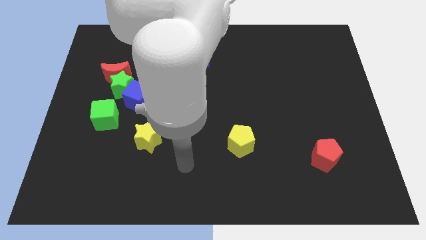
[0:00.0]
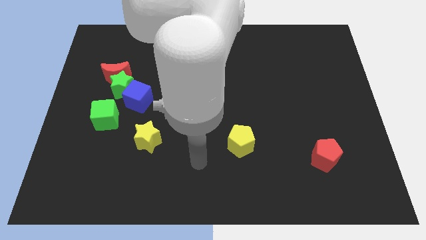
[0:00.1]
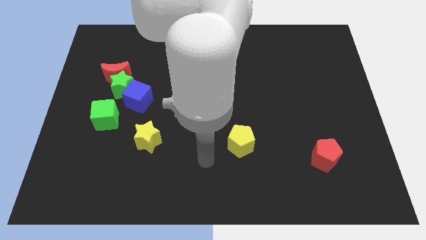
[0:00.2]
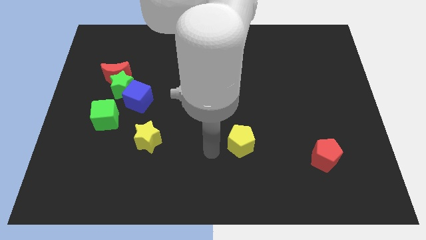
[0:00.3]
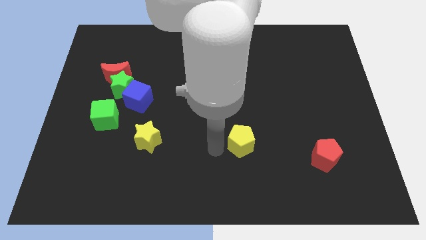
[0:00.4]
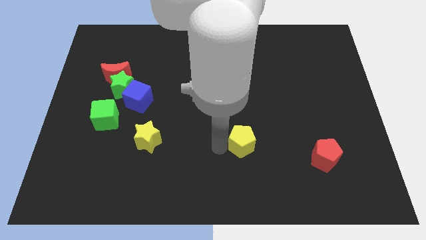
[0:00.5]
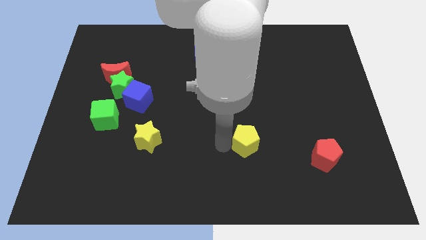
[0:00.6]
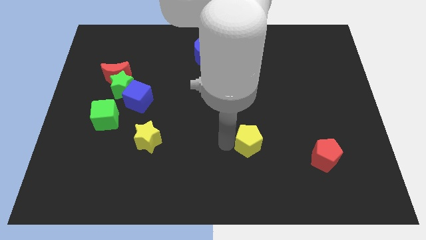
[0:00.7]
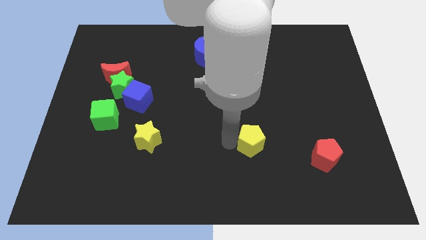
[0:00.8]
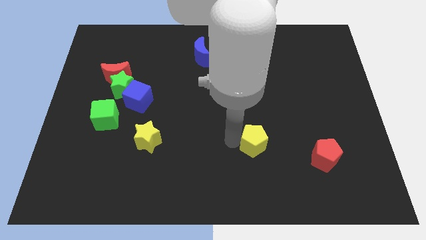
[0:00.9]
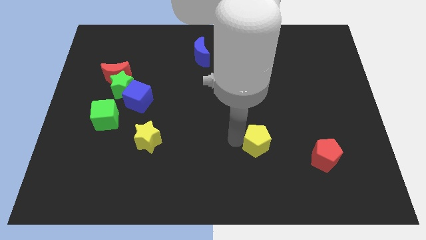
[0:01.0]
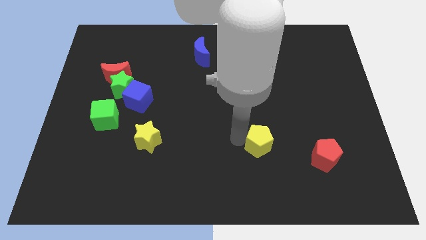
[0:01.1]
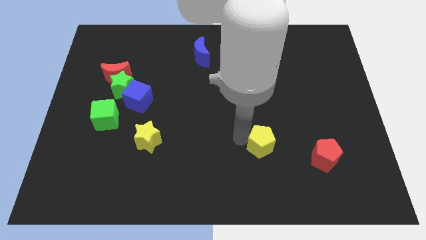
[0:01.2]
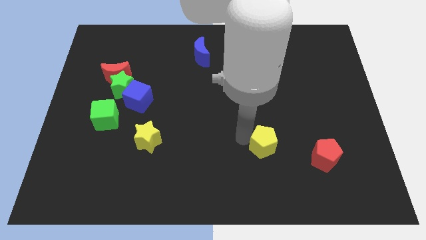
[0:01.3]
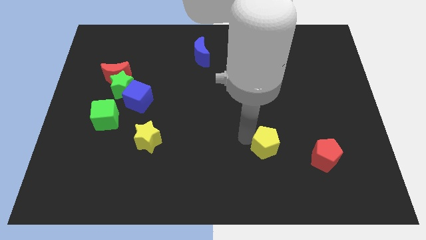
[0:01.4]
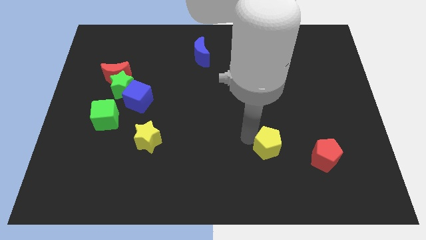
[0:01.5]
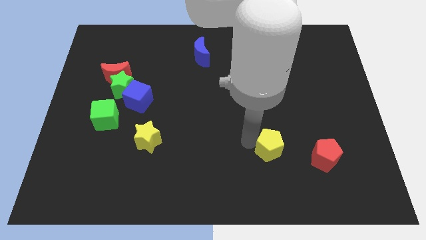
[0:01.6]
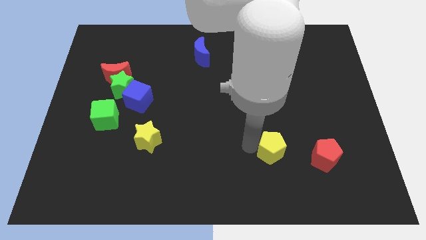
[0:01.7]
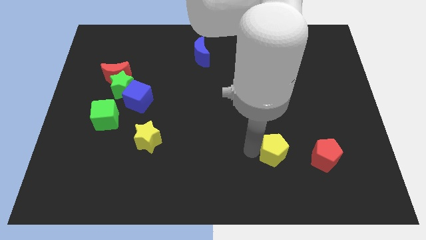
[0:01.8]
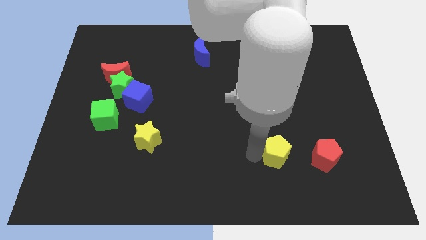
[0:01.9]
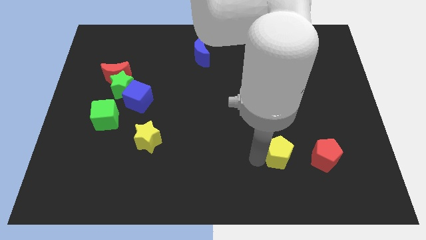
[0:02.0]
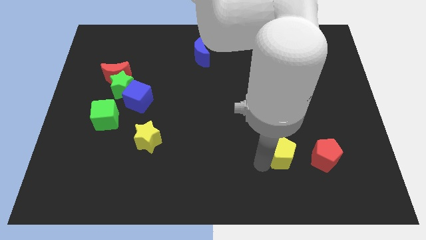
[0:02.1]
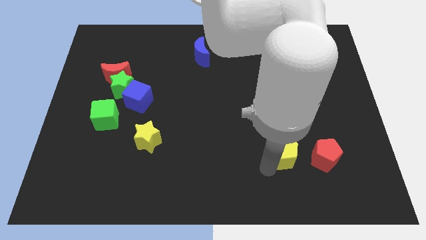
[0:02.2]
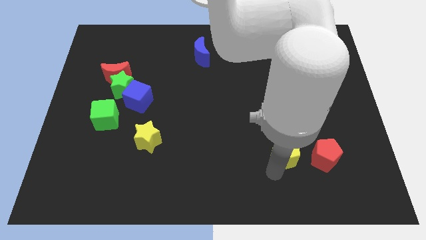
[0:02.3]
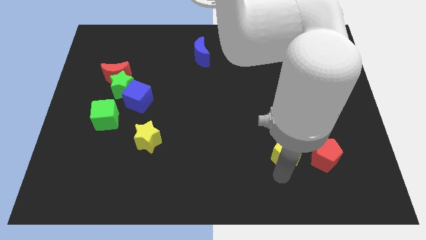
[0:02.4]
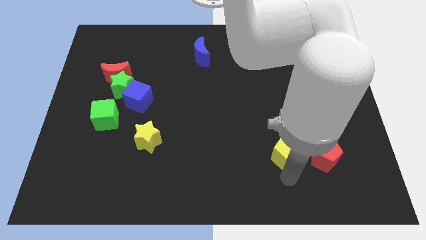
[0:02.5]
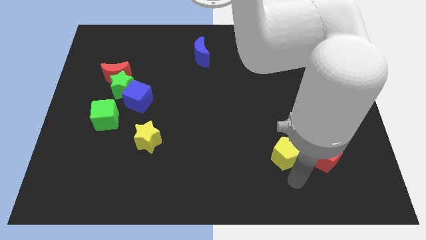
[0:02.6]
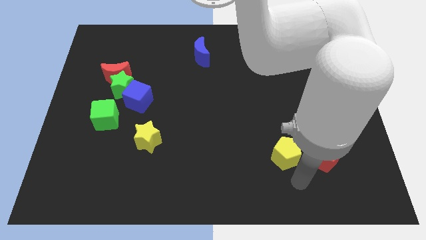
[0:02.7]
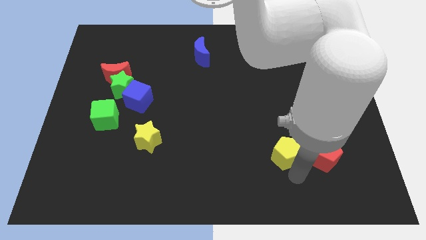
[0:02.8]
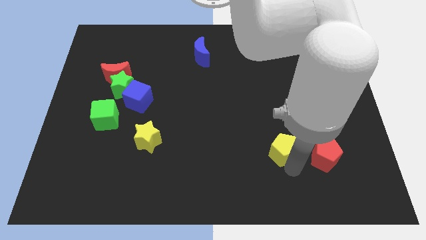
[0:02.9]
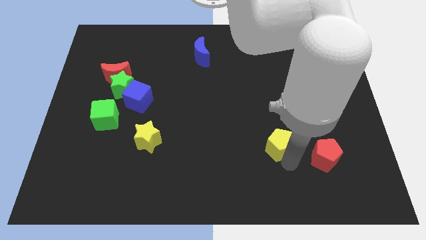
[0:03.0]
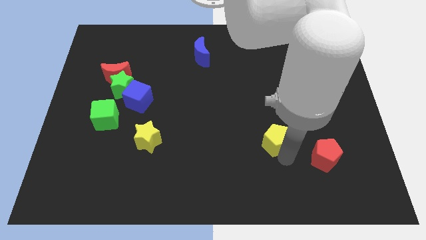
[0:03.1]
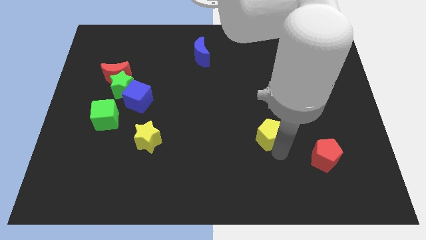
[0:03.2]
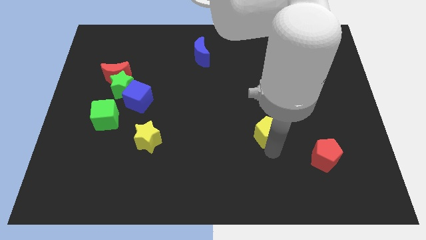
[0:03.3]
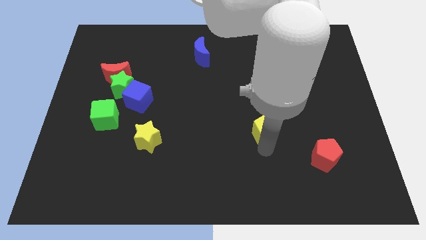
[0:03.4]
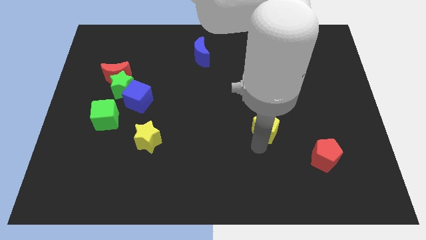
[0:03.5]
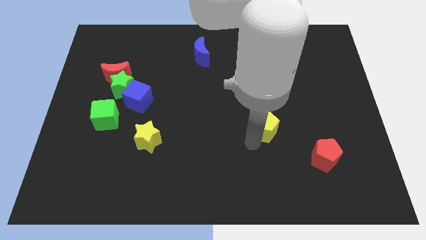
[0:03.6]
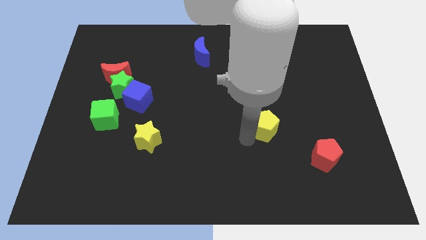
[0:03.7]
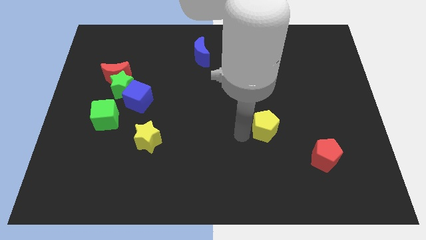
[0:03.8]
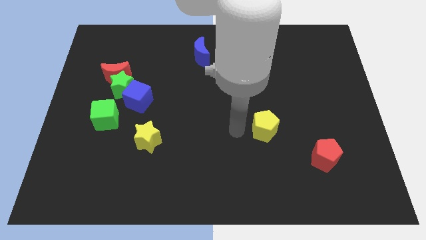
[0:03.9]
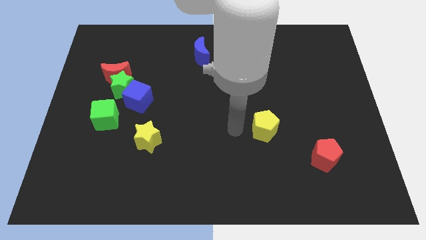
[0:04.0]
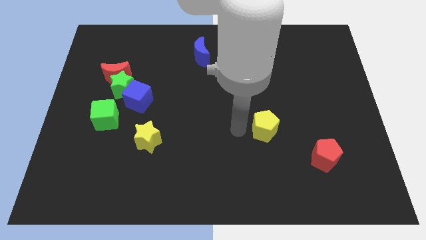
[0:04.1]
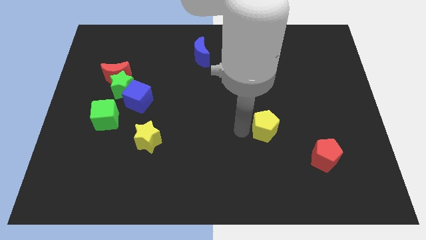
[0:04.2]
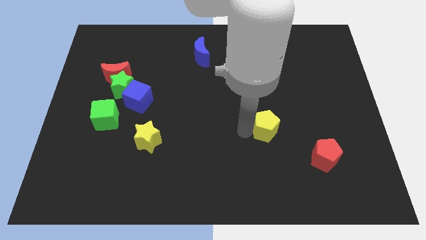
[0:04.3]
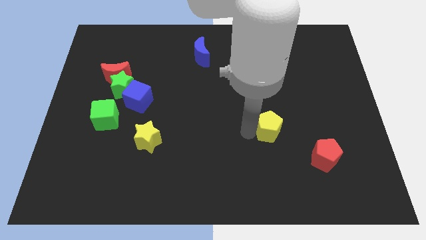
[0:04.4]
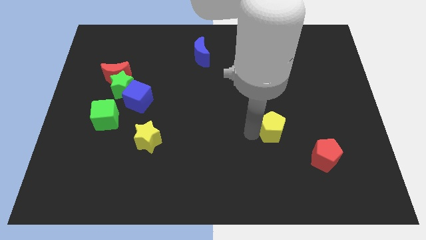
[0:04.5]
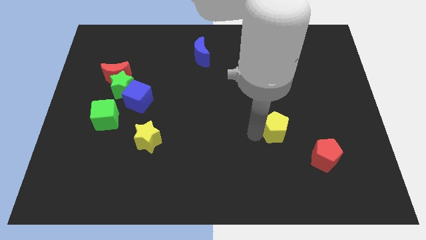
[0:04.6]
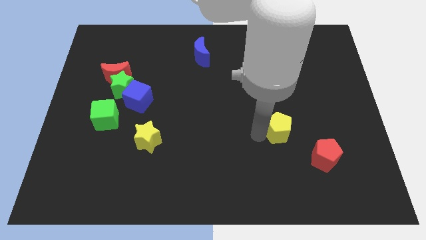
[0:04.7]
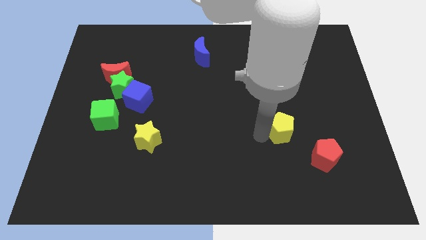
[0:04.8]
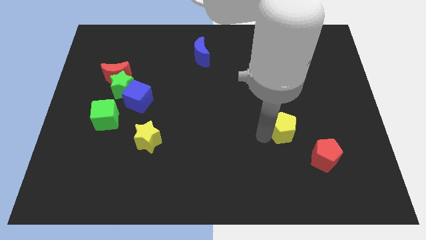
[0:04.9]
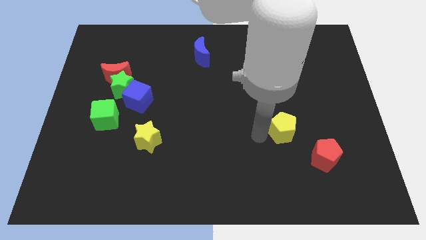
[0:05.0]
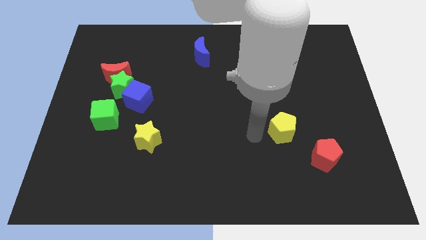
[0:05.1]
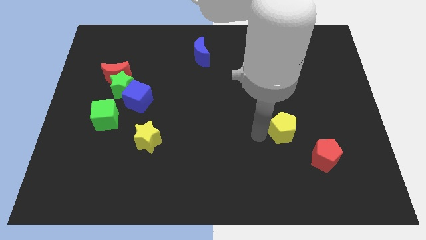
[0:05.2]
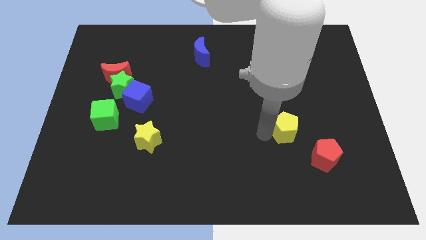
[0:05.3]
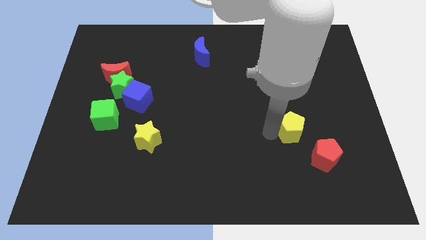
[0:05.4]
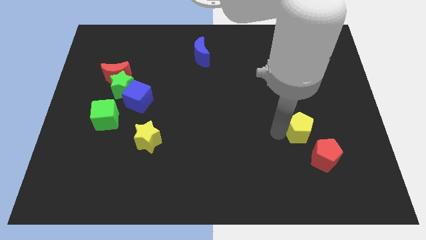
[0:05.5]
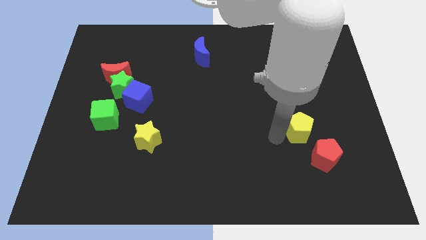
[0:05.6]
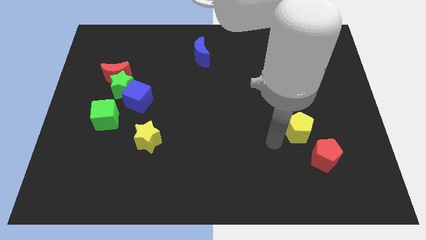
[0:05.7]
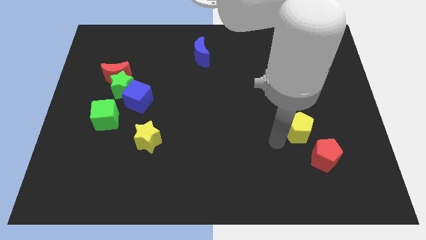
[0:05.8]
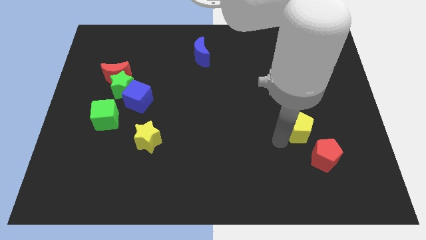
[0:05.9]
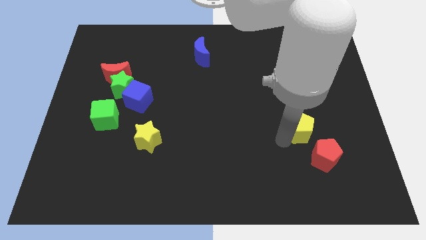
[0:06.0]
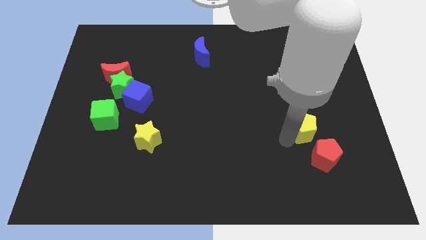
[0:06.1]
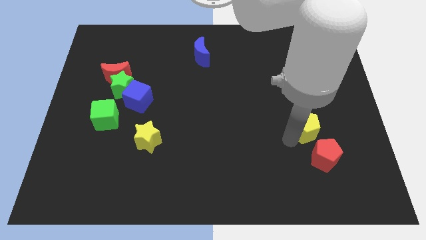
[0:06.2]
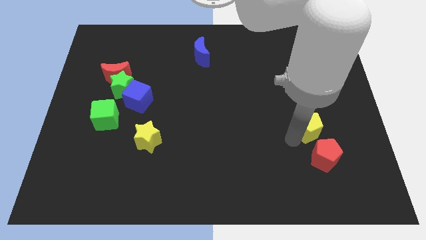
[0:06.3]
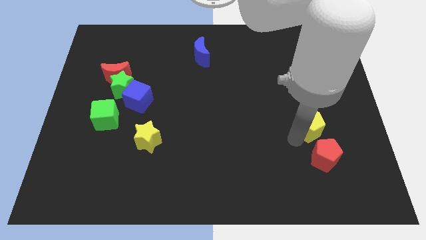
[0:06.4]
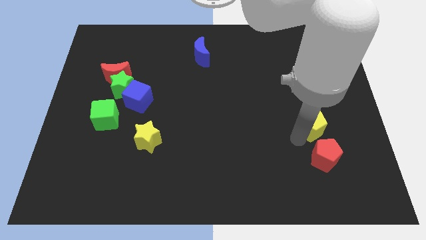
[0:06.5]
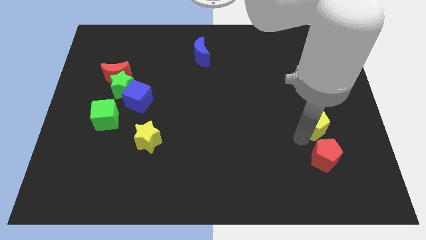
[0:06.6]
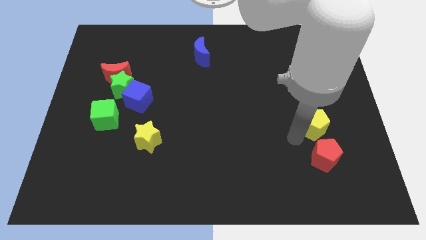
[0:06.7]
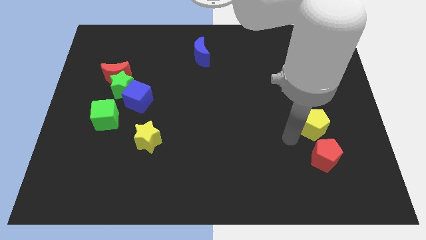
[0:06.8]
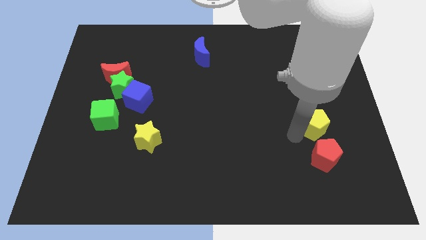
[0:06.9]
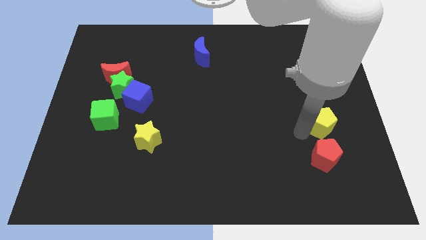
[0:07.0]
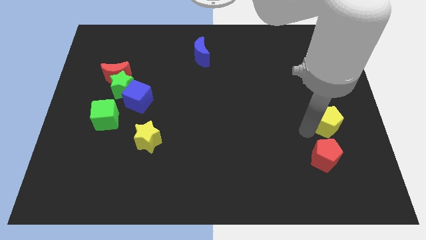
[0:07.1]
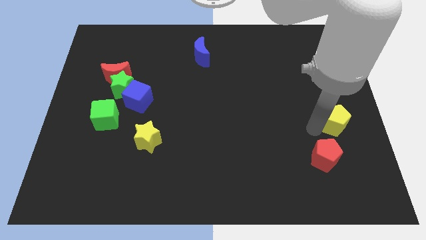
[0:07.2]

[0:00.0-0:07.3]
push the yellow pentagon to the center right

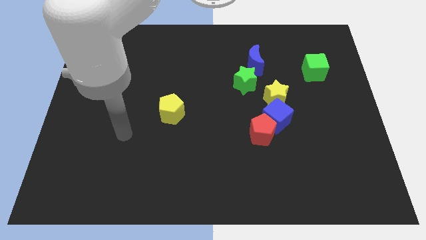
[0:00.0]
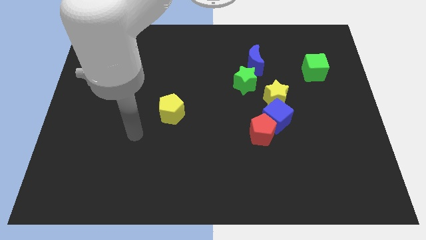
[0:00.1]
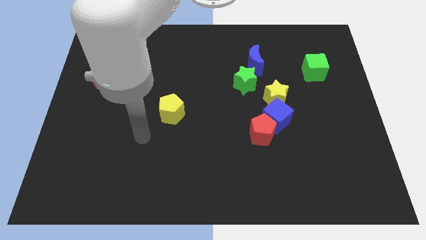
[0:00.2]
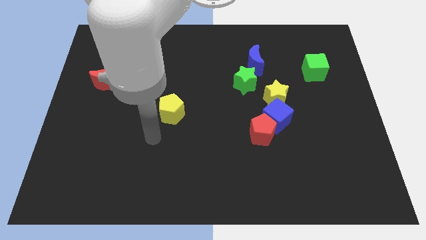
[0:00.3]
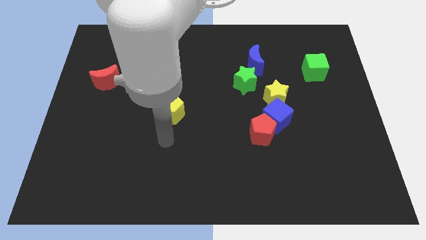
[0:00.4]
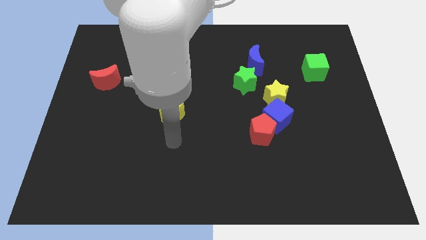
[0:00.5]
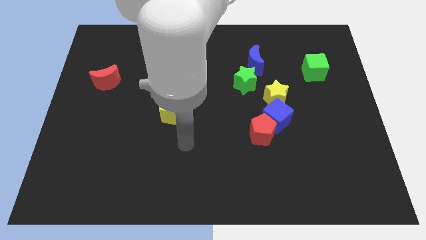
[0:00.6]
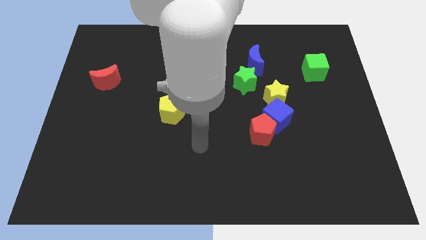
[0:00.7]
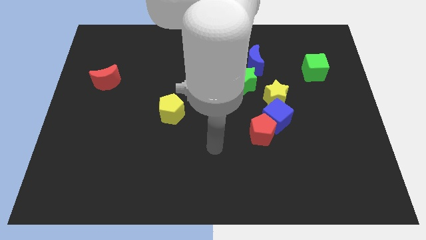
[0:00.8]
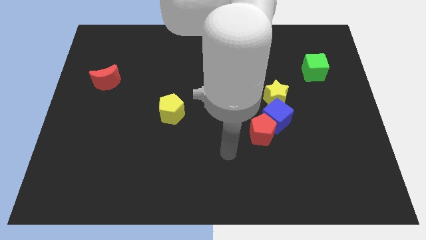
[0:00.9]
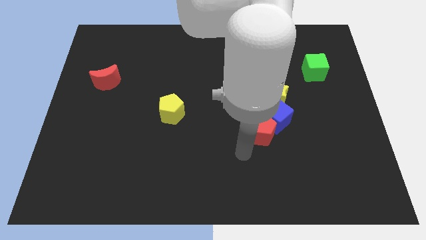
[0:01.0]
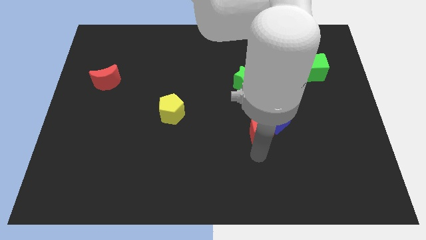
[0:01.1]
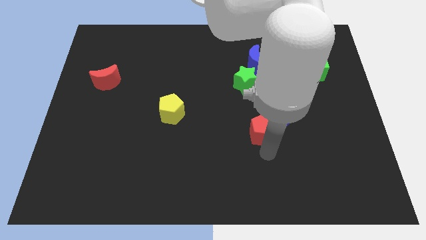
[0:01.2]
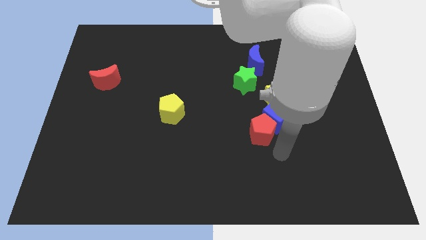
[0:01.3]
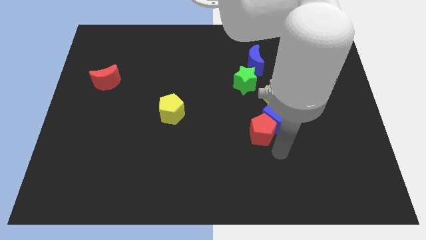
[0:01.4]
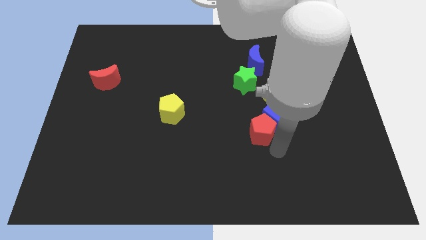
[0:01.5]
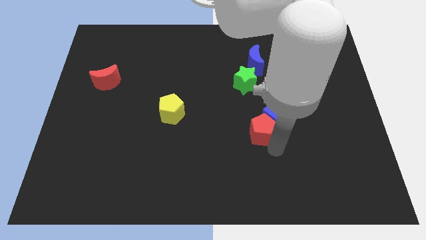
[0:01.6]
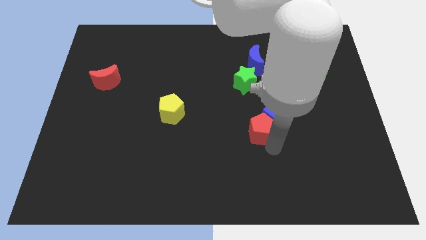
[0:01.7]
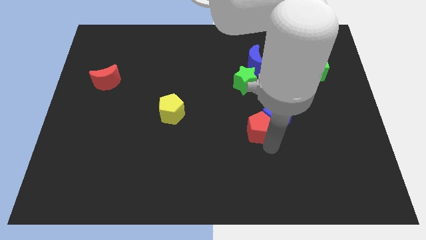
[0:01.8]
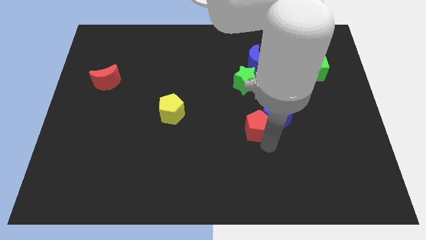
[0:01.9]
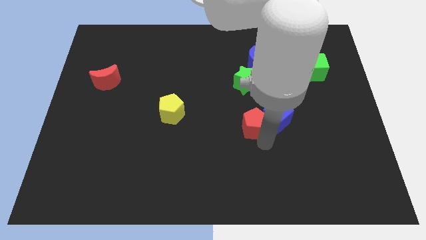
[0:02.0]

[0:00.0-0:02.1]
push the red pentagon to the middle of the board
